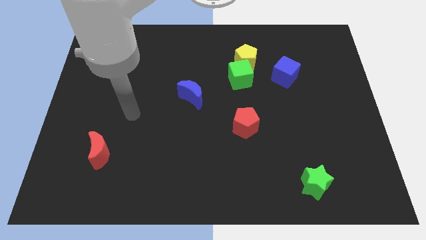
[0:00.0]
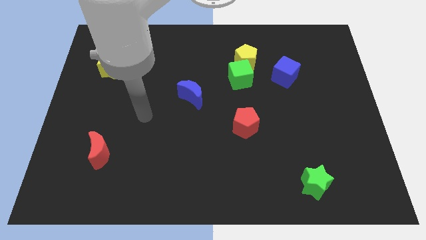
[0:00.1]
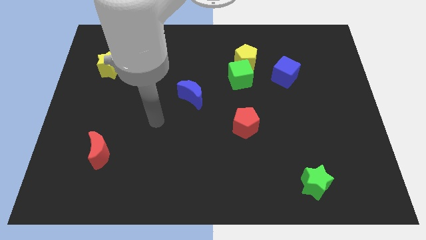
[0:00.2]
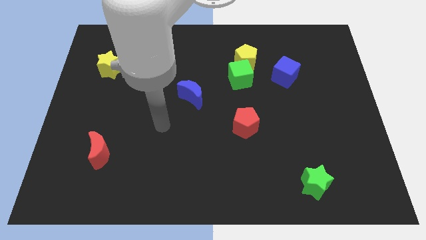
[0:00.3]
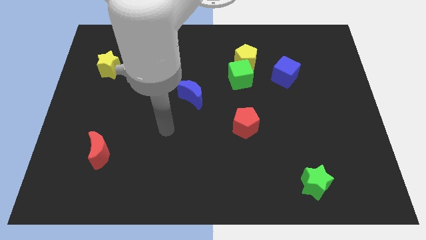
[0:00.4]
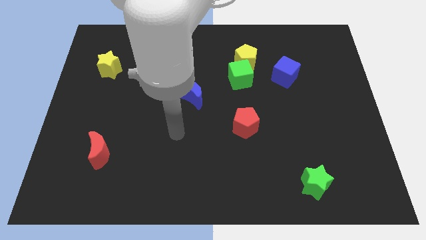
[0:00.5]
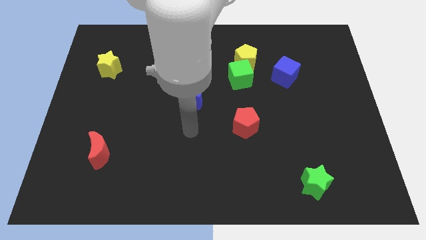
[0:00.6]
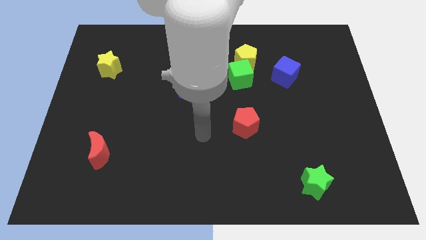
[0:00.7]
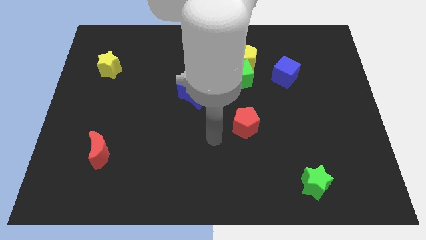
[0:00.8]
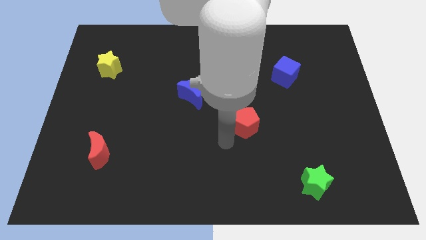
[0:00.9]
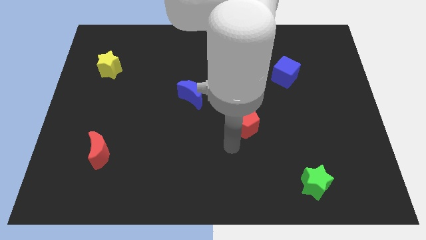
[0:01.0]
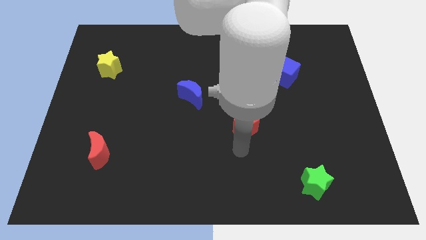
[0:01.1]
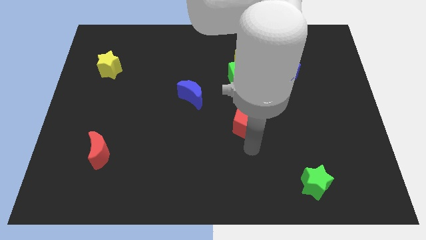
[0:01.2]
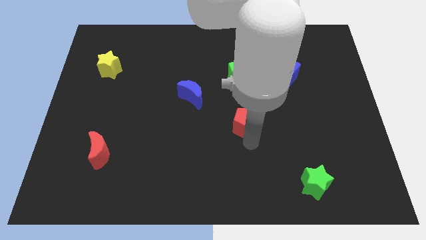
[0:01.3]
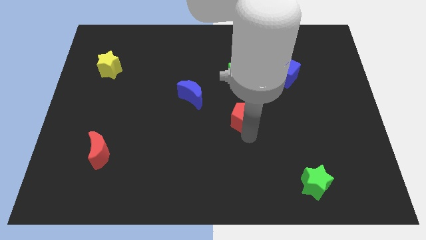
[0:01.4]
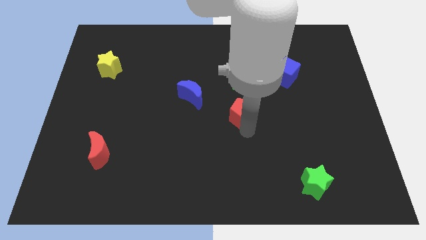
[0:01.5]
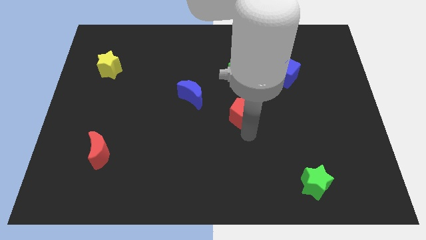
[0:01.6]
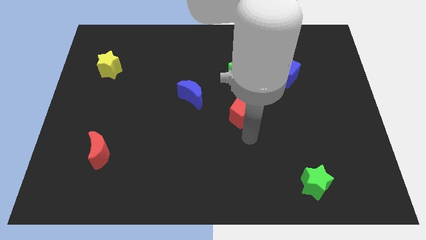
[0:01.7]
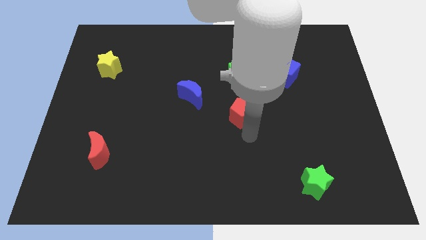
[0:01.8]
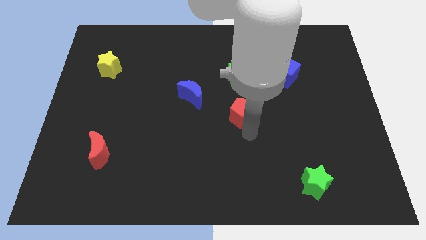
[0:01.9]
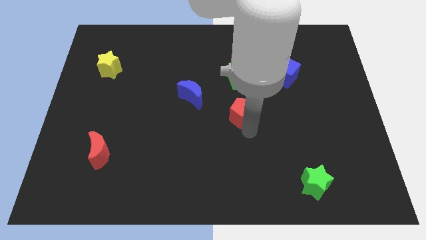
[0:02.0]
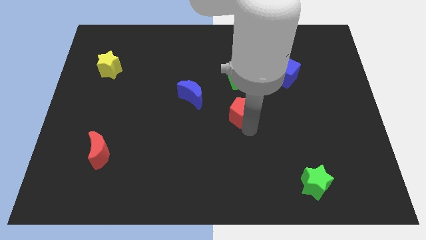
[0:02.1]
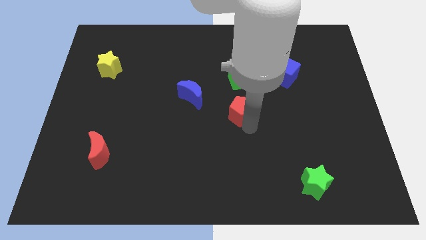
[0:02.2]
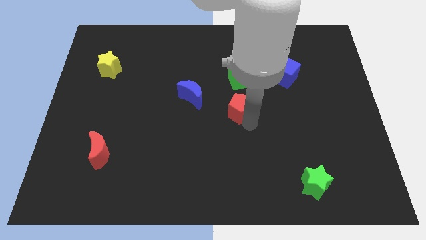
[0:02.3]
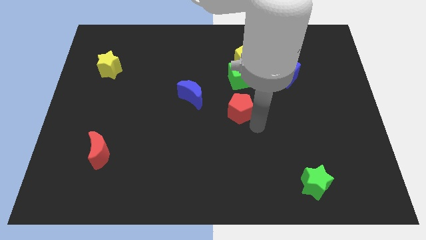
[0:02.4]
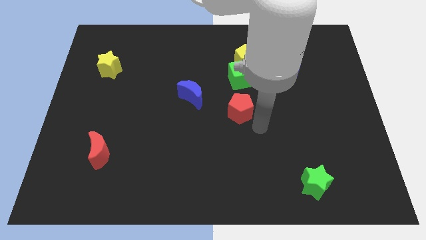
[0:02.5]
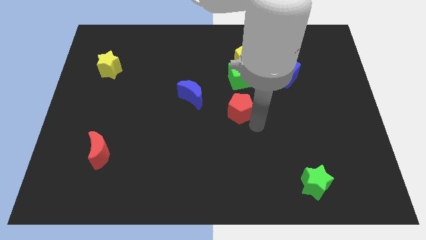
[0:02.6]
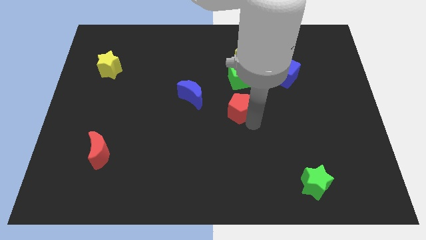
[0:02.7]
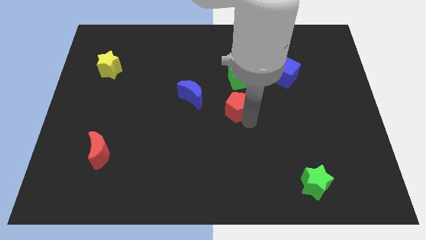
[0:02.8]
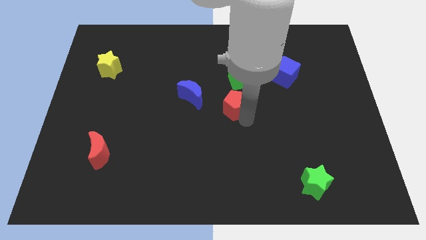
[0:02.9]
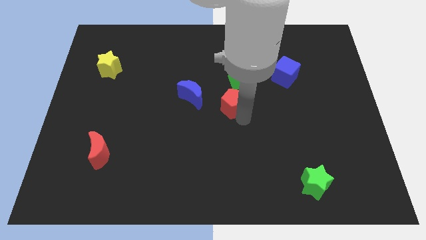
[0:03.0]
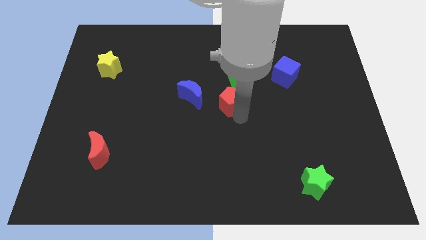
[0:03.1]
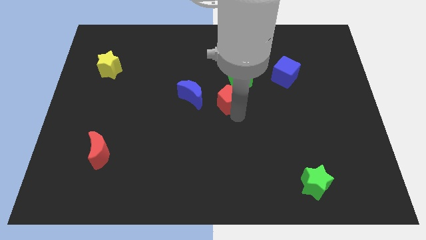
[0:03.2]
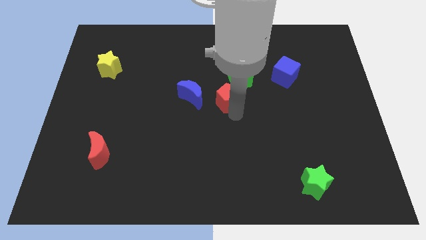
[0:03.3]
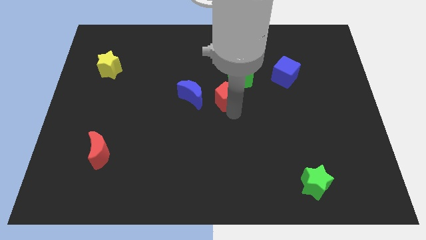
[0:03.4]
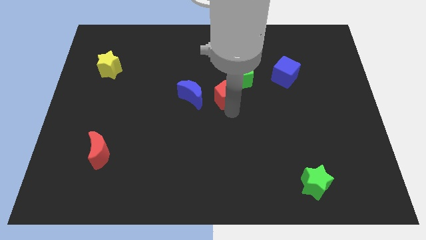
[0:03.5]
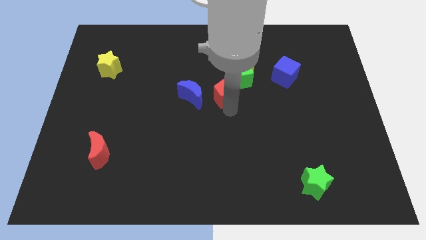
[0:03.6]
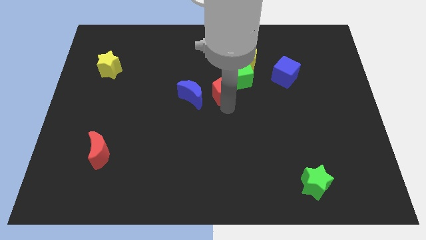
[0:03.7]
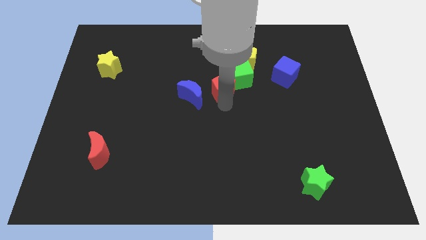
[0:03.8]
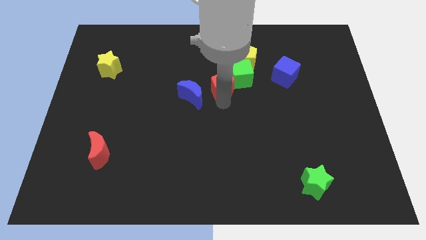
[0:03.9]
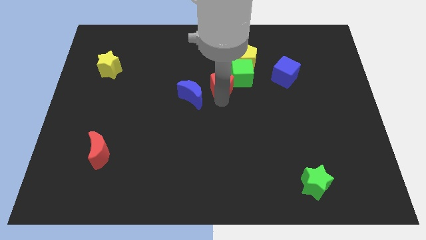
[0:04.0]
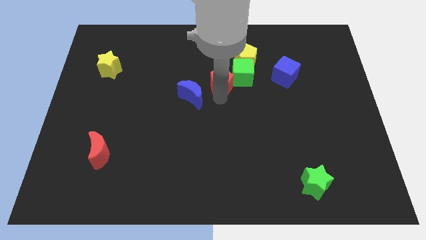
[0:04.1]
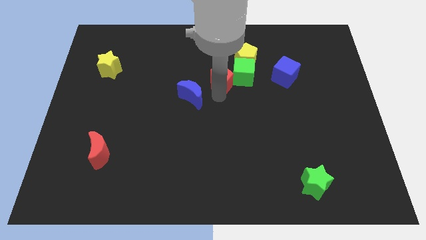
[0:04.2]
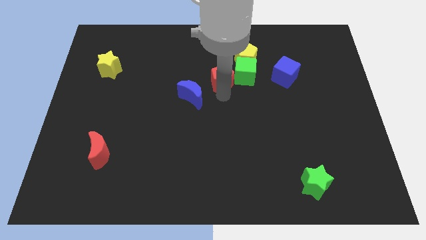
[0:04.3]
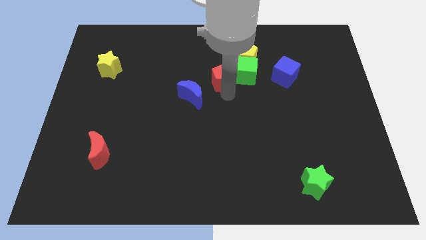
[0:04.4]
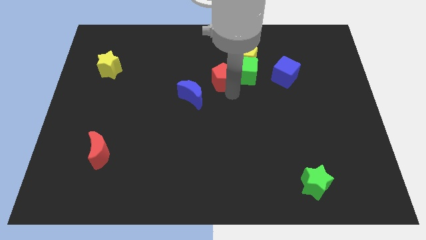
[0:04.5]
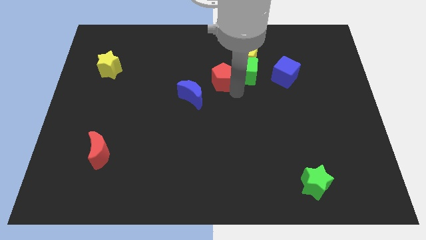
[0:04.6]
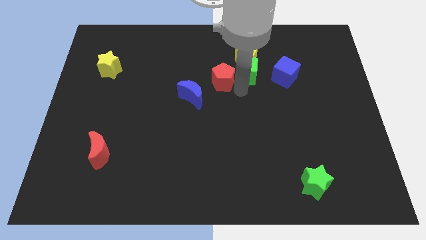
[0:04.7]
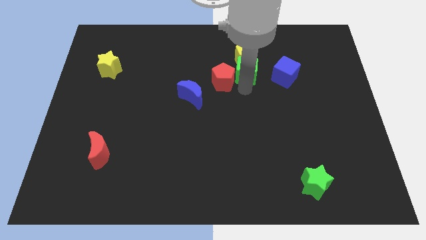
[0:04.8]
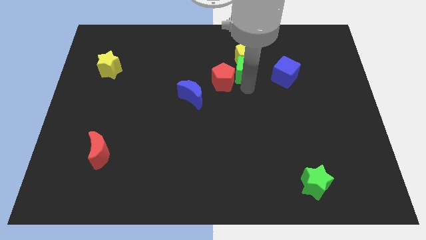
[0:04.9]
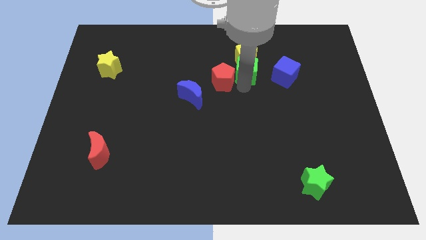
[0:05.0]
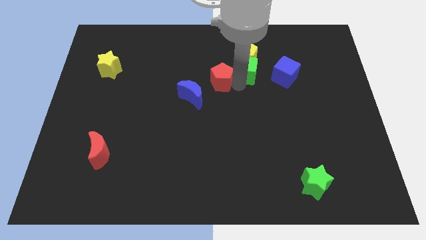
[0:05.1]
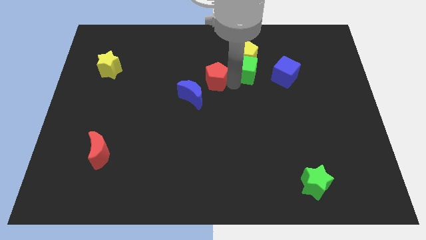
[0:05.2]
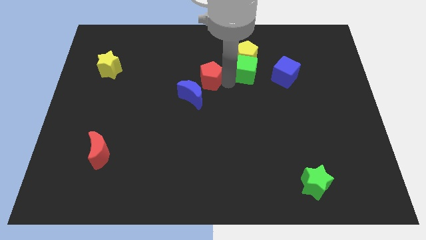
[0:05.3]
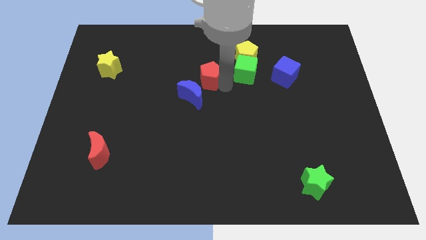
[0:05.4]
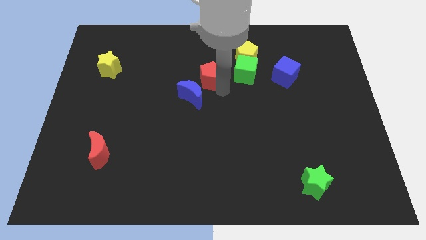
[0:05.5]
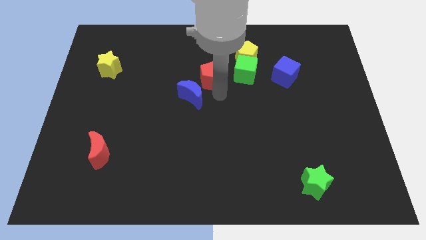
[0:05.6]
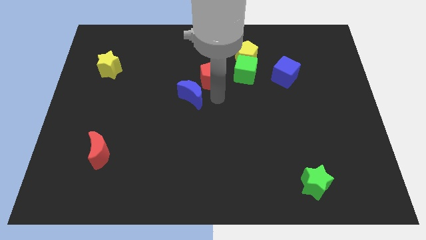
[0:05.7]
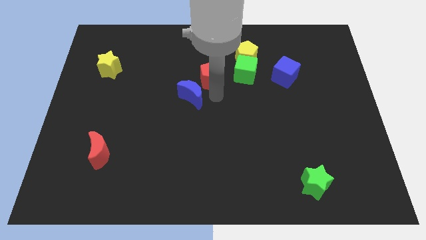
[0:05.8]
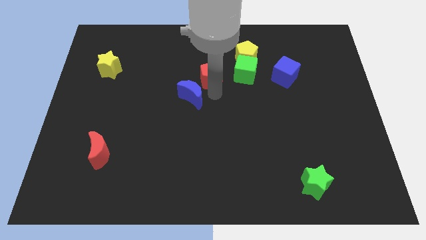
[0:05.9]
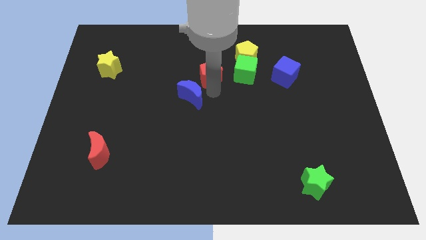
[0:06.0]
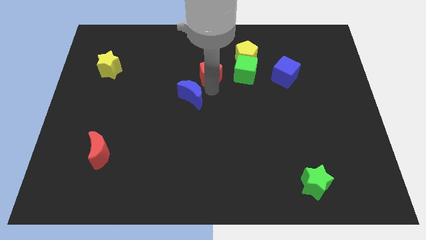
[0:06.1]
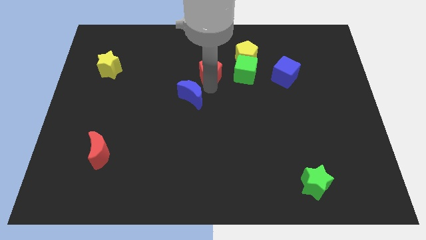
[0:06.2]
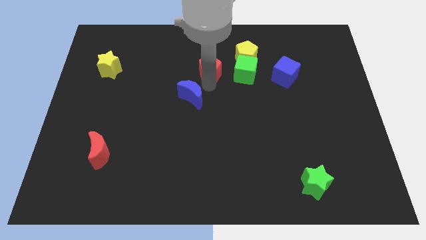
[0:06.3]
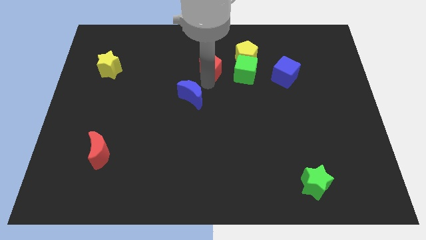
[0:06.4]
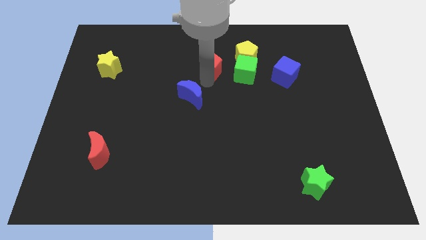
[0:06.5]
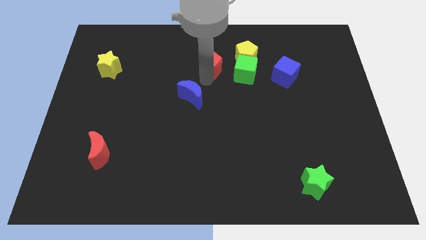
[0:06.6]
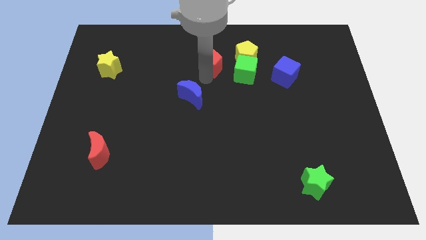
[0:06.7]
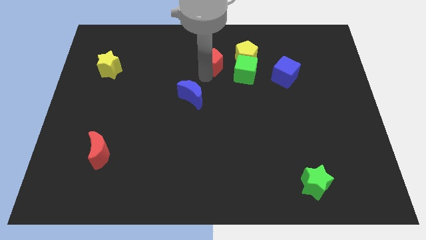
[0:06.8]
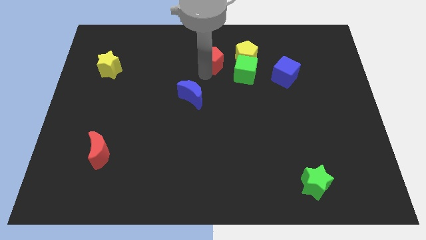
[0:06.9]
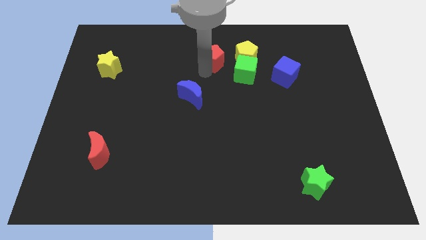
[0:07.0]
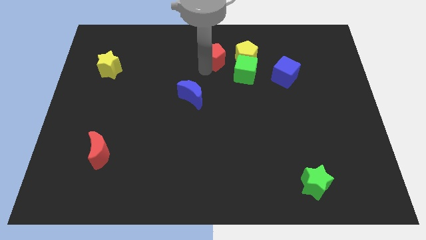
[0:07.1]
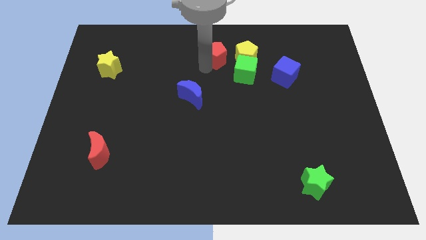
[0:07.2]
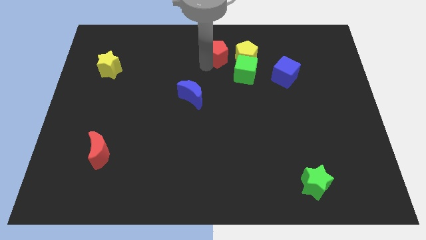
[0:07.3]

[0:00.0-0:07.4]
move the red pentagon to the towards your base
